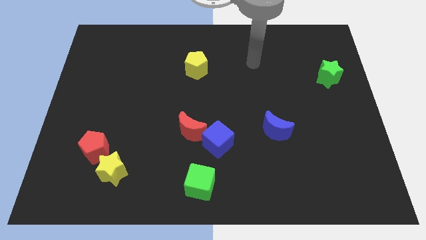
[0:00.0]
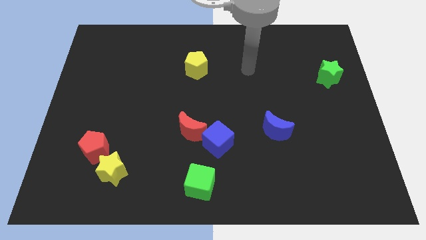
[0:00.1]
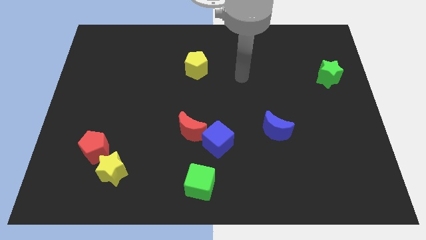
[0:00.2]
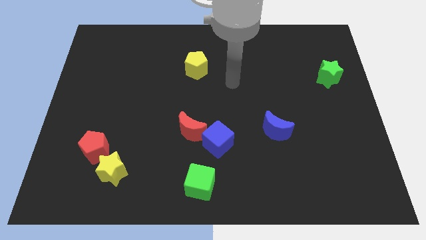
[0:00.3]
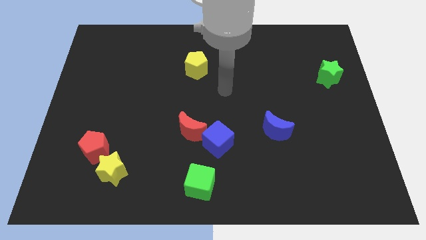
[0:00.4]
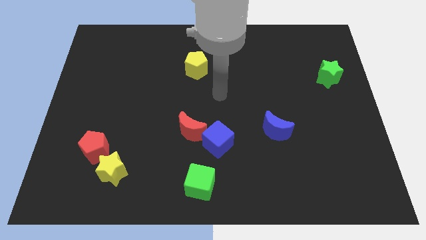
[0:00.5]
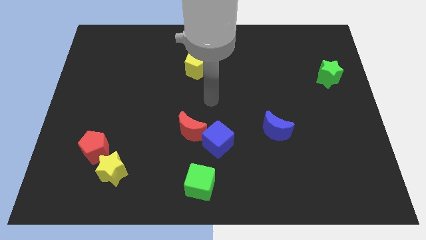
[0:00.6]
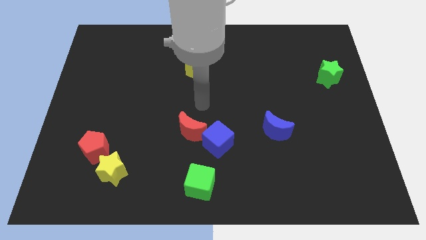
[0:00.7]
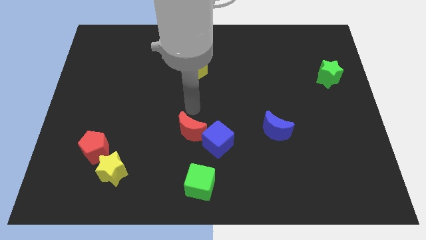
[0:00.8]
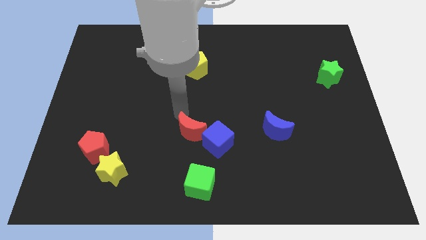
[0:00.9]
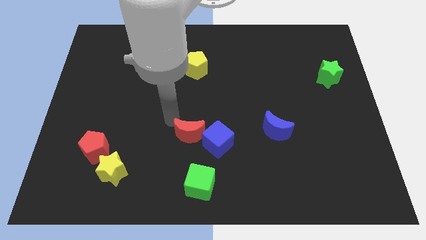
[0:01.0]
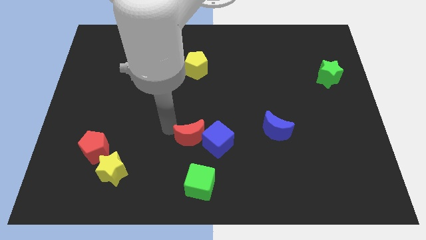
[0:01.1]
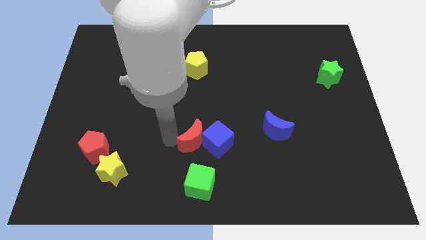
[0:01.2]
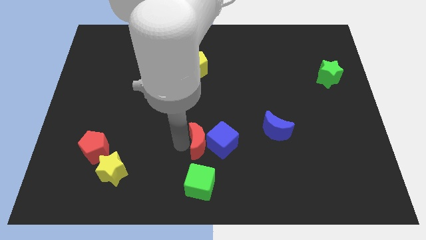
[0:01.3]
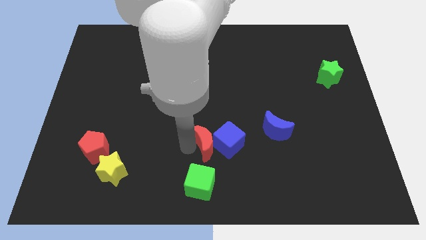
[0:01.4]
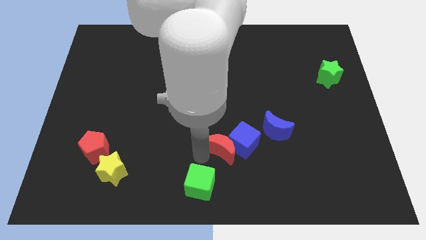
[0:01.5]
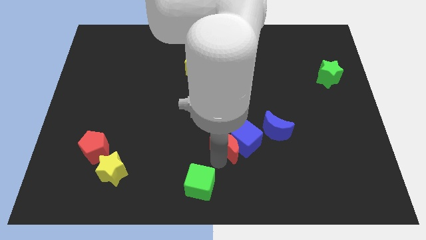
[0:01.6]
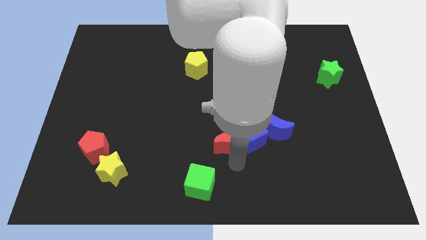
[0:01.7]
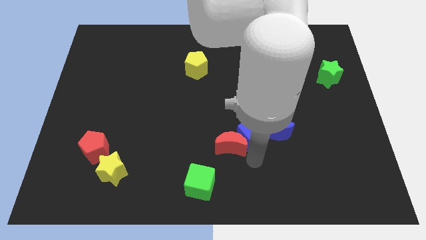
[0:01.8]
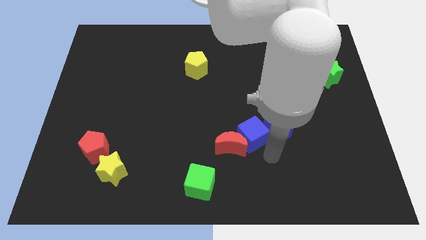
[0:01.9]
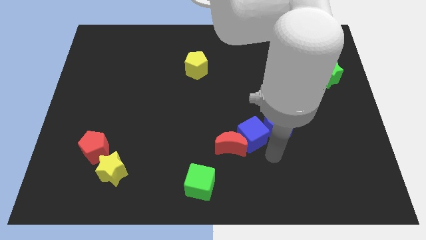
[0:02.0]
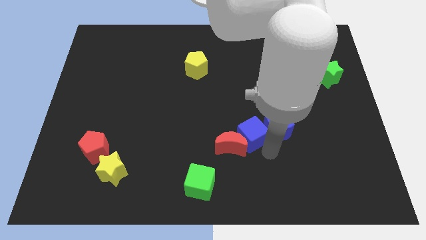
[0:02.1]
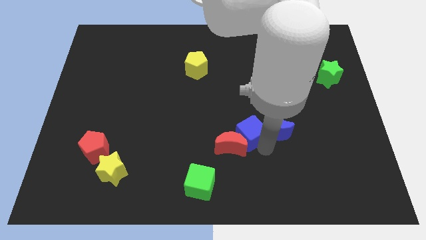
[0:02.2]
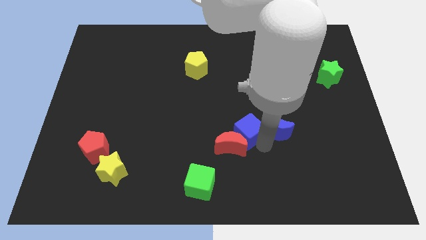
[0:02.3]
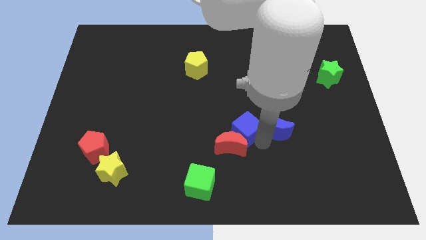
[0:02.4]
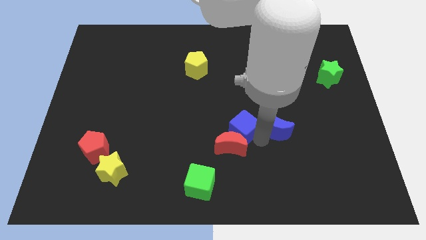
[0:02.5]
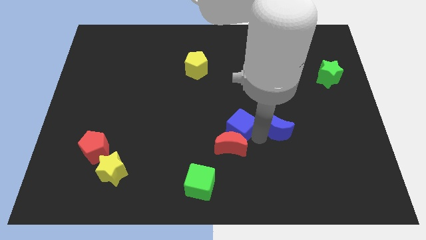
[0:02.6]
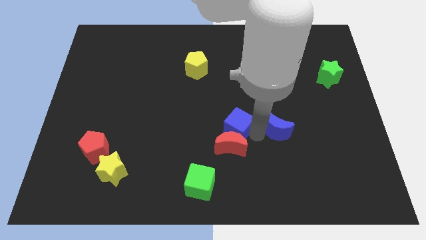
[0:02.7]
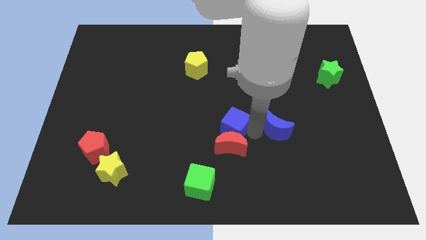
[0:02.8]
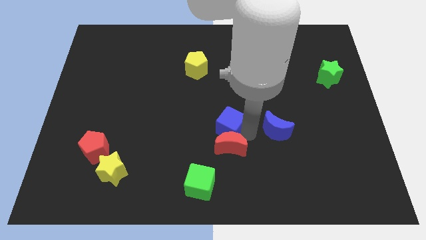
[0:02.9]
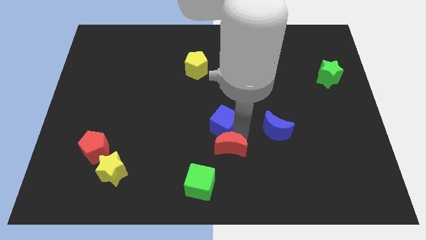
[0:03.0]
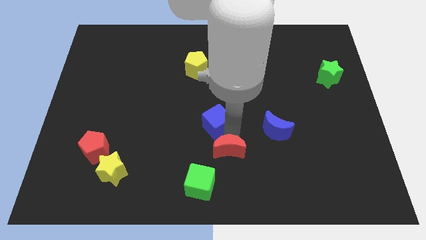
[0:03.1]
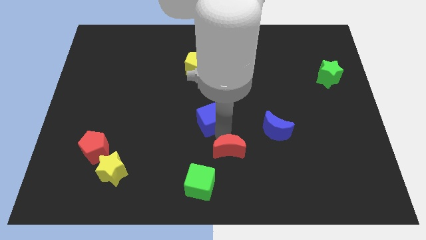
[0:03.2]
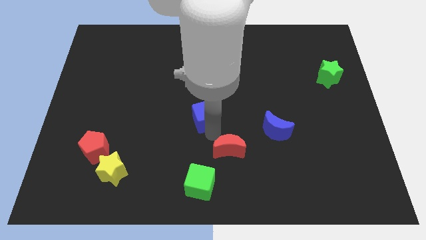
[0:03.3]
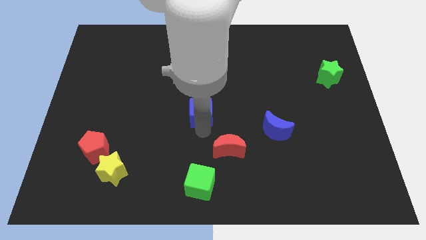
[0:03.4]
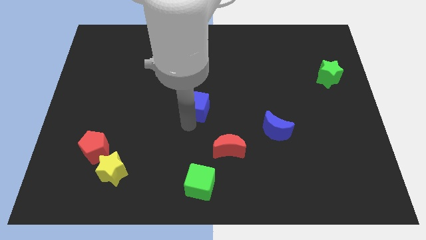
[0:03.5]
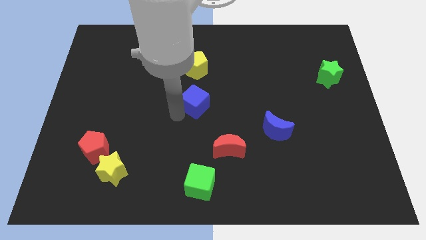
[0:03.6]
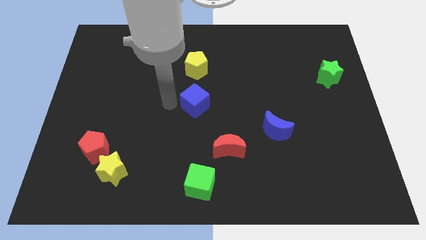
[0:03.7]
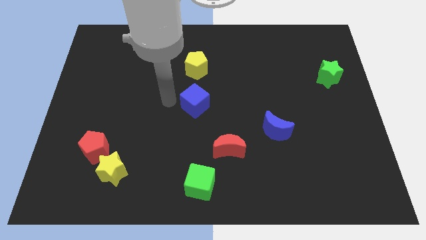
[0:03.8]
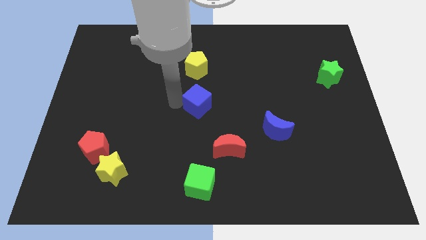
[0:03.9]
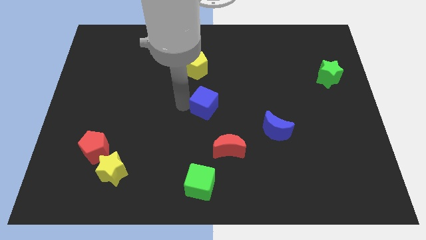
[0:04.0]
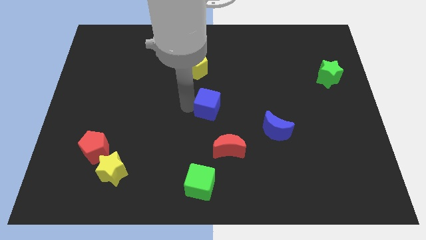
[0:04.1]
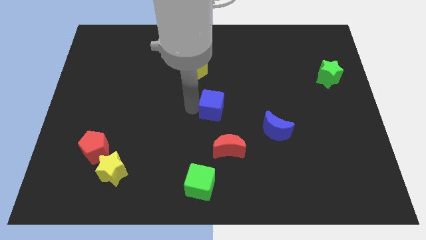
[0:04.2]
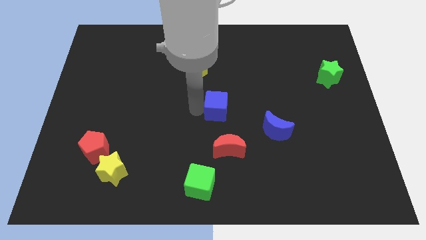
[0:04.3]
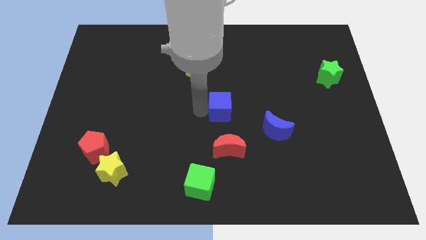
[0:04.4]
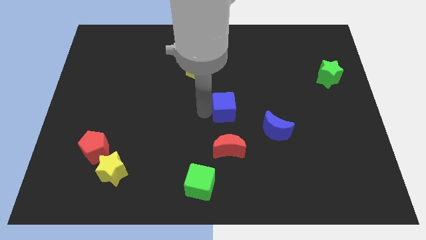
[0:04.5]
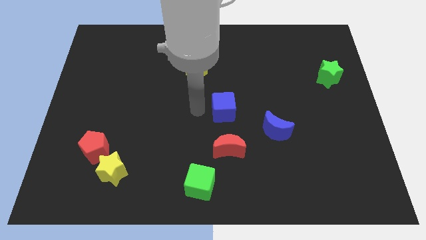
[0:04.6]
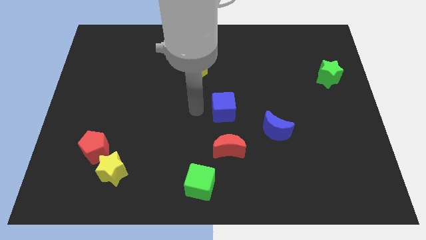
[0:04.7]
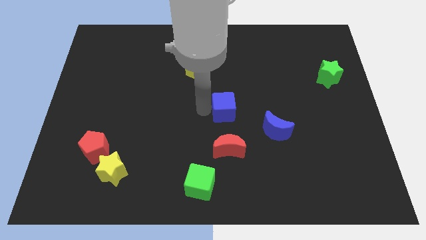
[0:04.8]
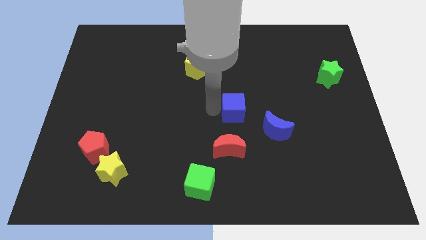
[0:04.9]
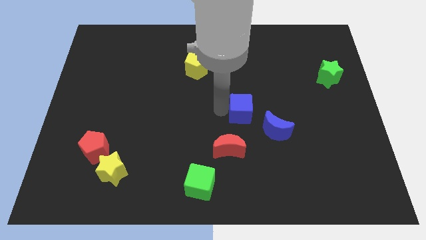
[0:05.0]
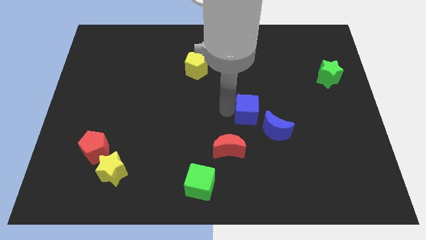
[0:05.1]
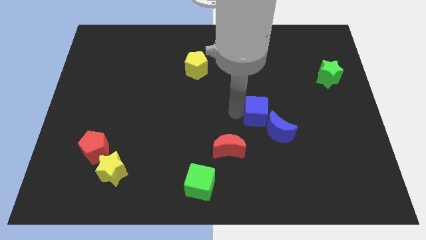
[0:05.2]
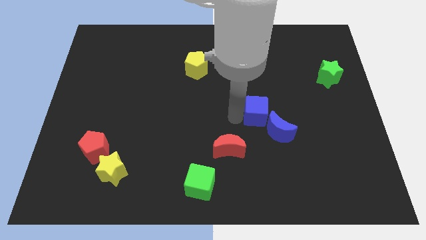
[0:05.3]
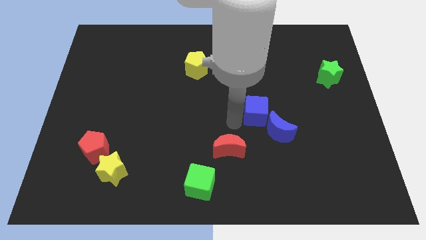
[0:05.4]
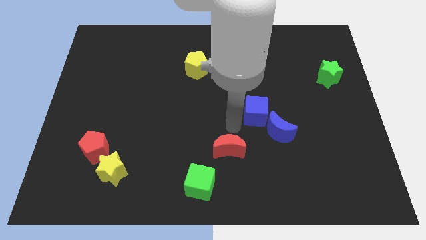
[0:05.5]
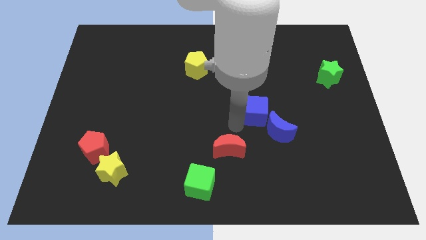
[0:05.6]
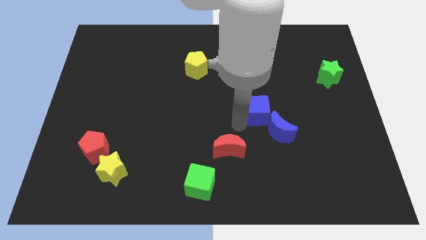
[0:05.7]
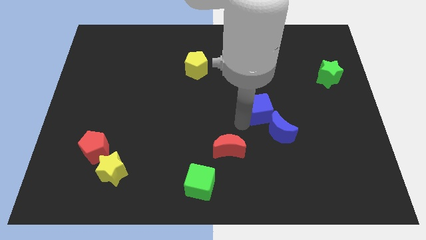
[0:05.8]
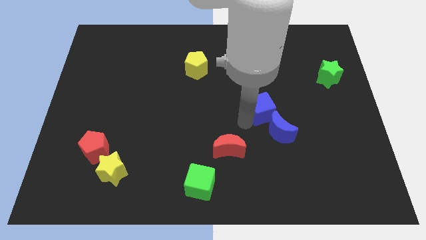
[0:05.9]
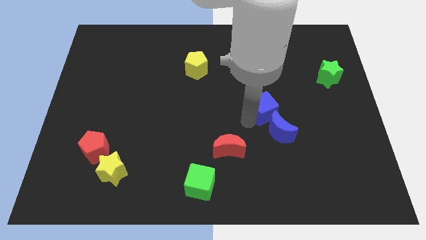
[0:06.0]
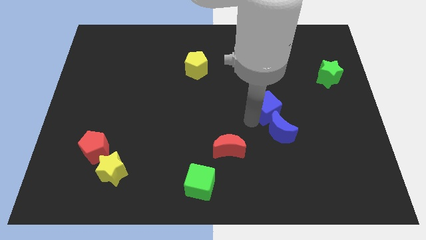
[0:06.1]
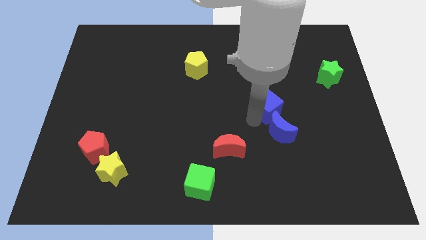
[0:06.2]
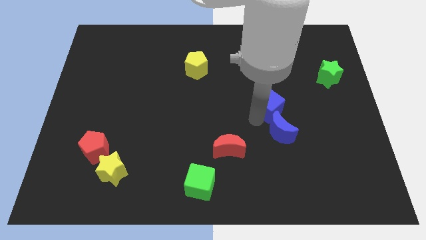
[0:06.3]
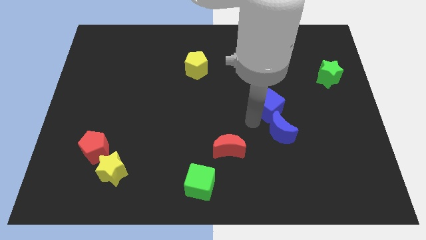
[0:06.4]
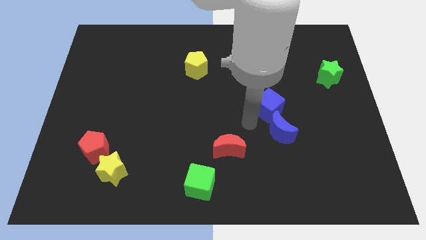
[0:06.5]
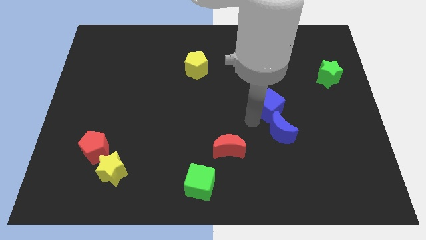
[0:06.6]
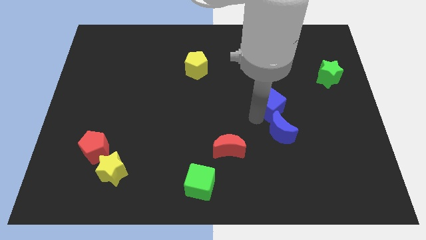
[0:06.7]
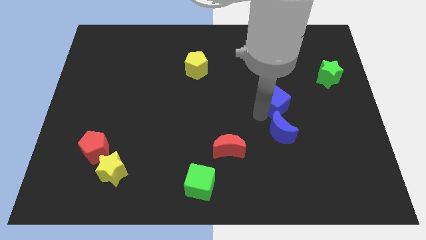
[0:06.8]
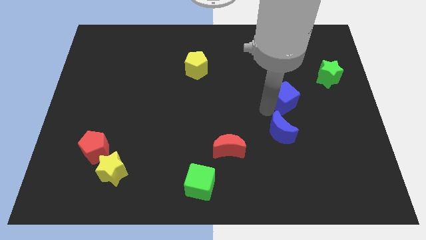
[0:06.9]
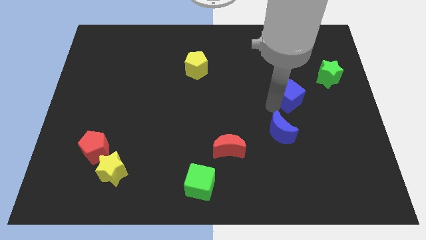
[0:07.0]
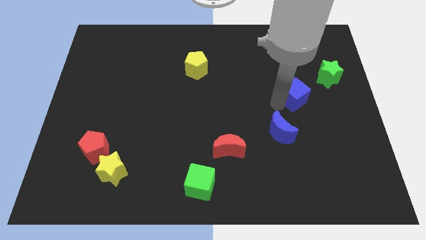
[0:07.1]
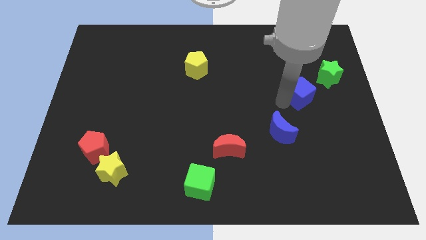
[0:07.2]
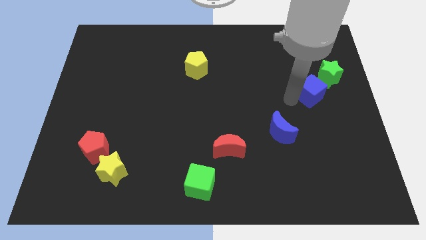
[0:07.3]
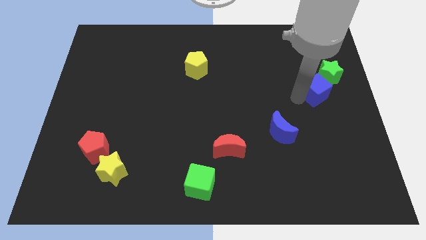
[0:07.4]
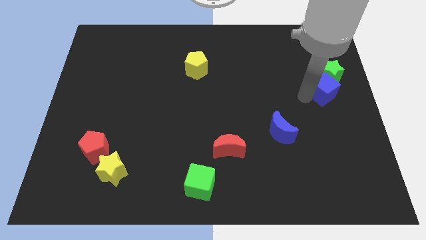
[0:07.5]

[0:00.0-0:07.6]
slide the blue cube towards the green star
